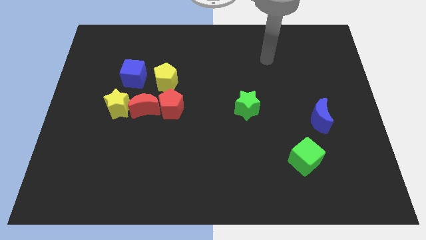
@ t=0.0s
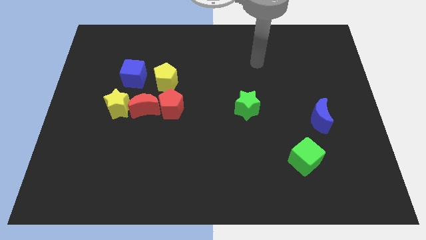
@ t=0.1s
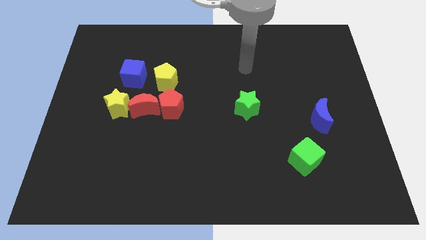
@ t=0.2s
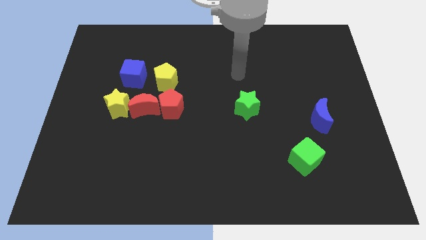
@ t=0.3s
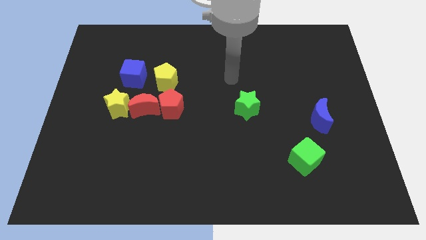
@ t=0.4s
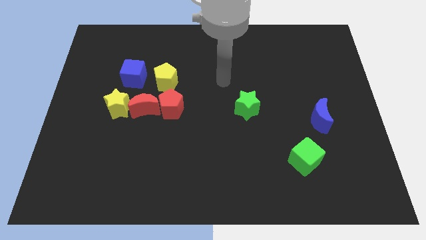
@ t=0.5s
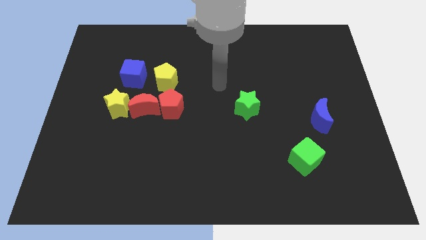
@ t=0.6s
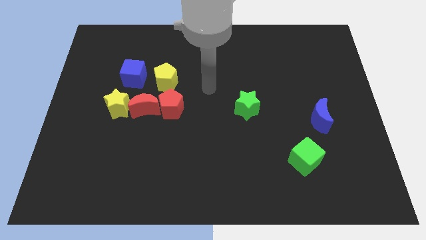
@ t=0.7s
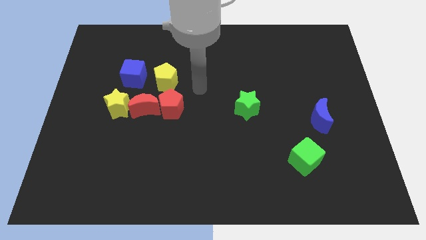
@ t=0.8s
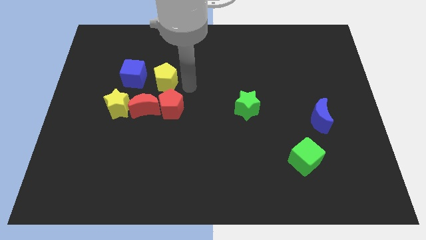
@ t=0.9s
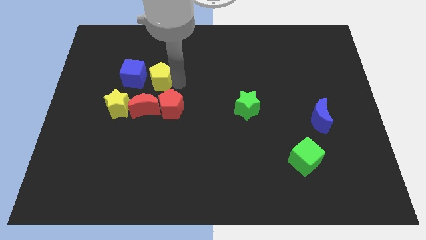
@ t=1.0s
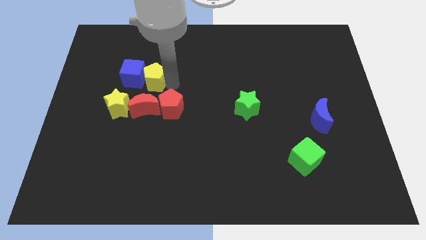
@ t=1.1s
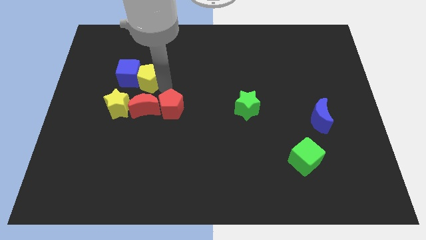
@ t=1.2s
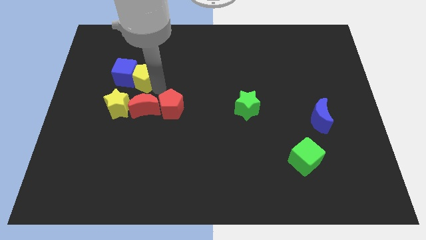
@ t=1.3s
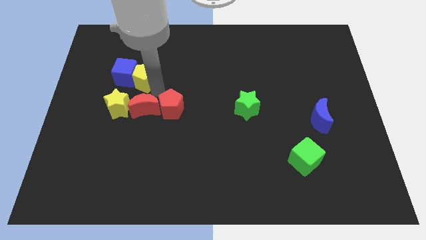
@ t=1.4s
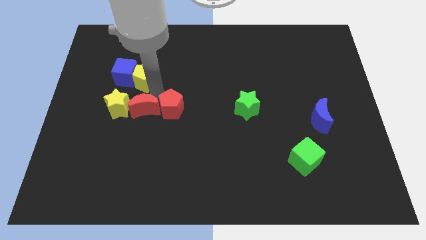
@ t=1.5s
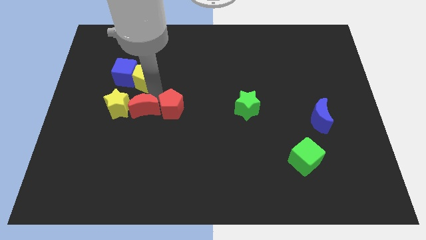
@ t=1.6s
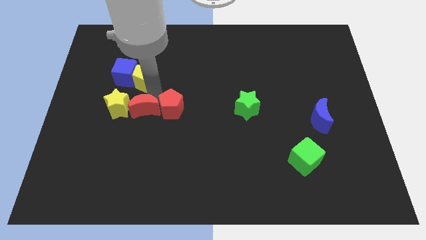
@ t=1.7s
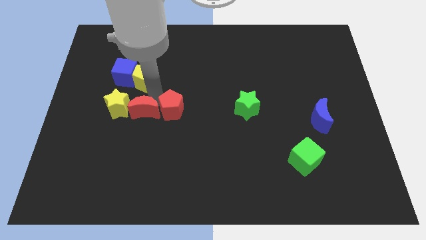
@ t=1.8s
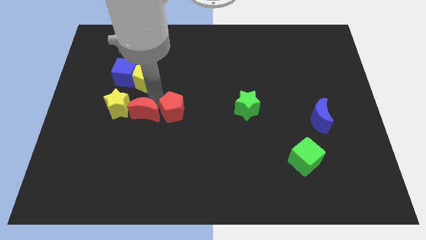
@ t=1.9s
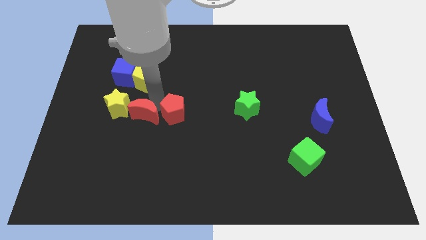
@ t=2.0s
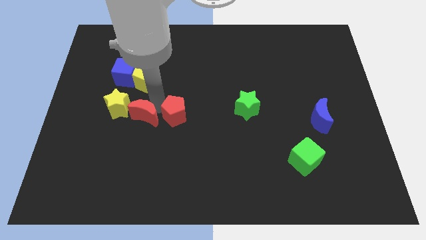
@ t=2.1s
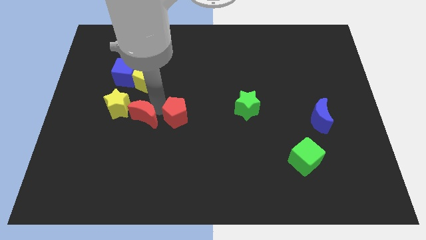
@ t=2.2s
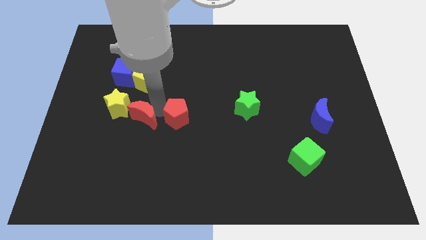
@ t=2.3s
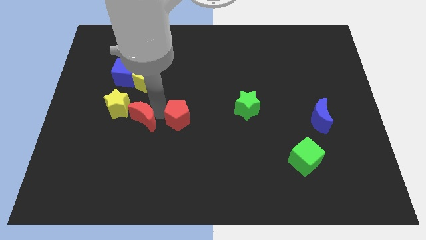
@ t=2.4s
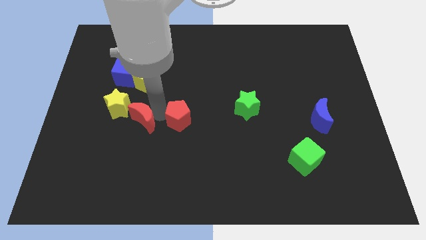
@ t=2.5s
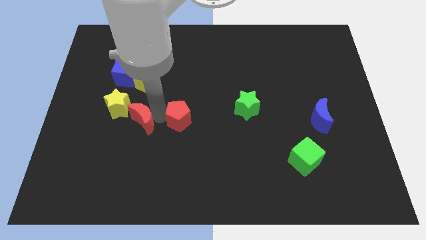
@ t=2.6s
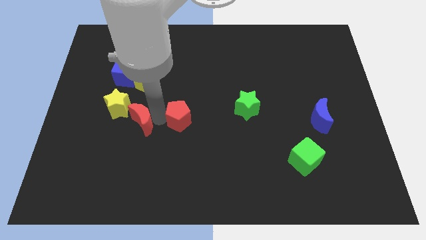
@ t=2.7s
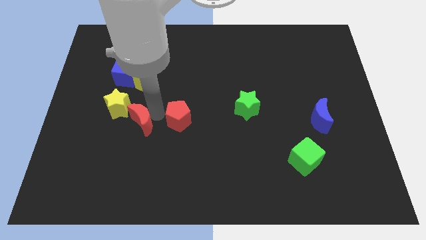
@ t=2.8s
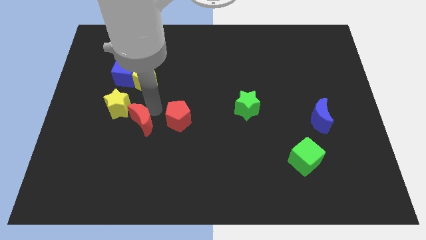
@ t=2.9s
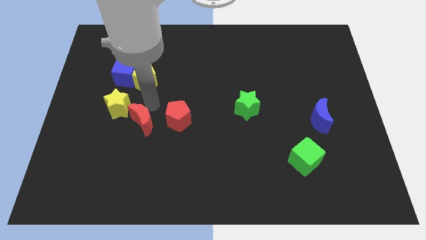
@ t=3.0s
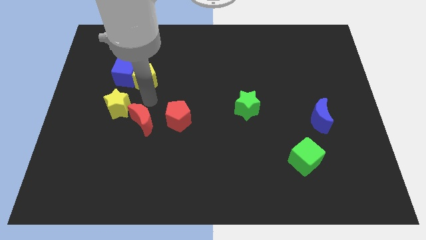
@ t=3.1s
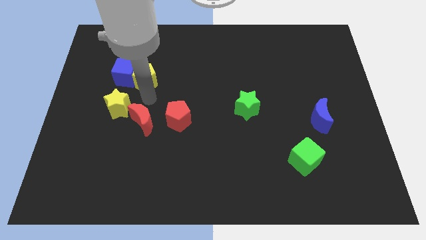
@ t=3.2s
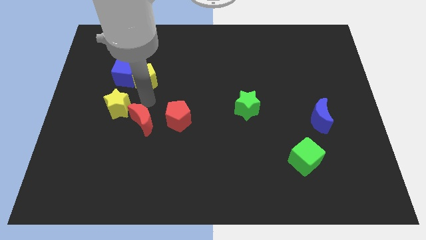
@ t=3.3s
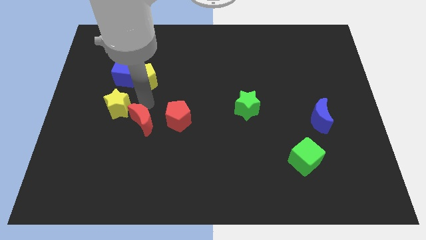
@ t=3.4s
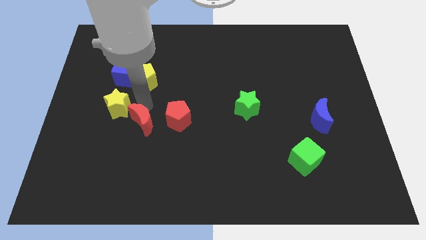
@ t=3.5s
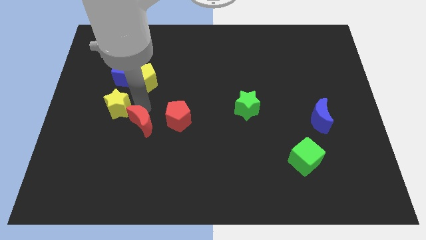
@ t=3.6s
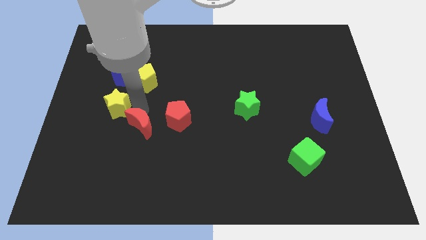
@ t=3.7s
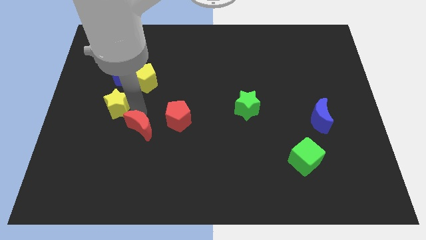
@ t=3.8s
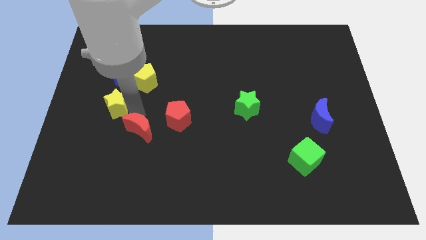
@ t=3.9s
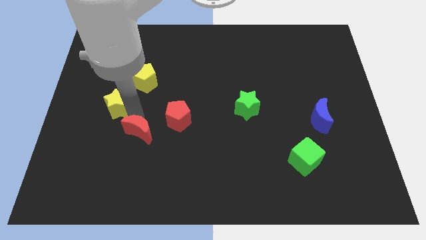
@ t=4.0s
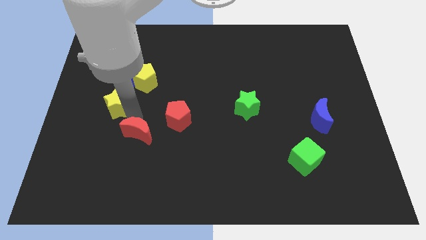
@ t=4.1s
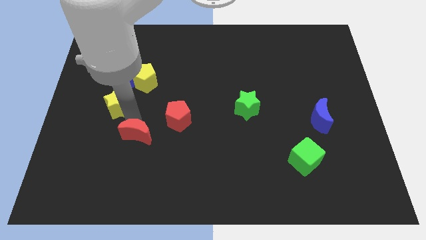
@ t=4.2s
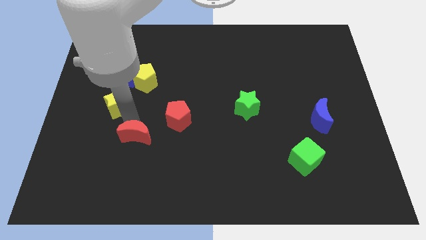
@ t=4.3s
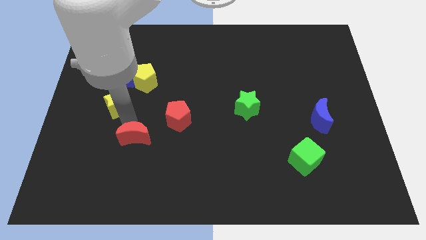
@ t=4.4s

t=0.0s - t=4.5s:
pull the red moon apart from the yellow star, red pentagon, and yellow pentagon

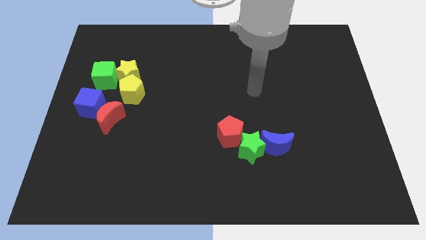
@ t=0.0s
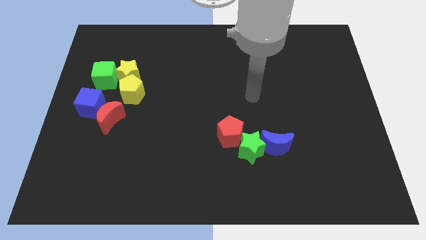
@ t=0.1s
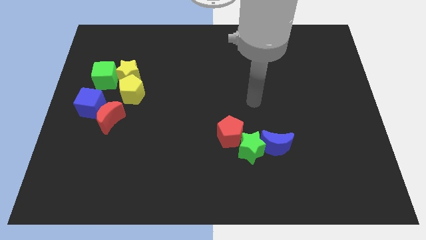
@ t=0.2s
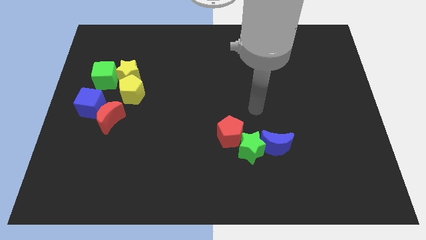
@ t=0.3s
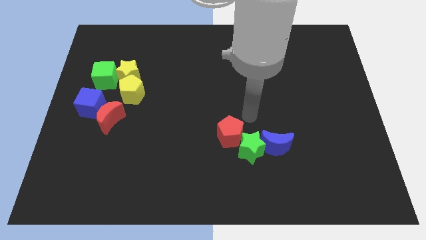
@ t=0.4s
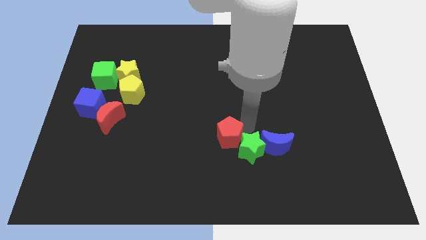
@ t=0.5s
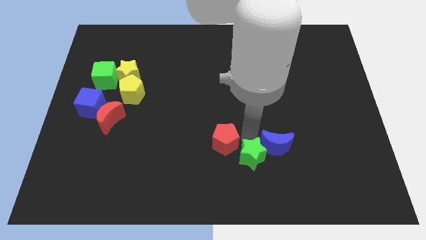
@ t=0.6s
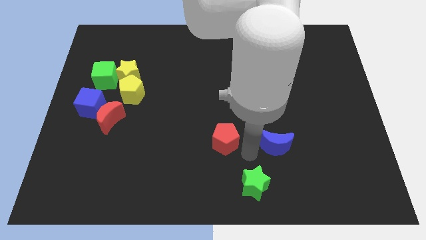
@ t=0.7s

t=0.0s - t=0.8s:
separate the blue moon from the green star

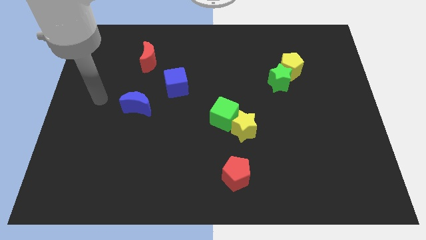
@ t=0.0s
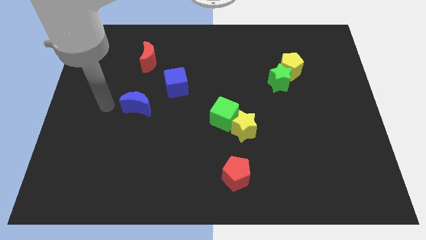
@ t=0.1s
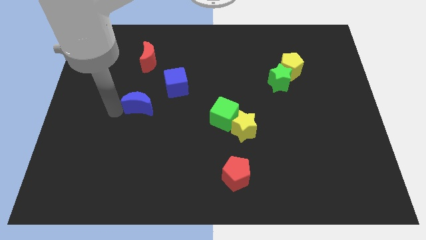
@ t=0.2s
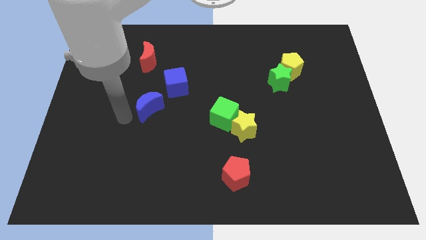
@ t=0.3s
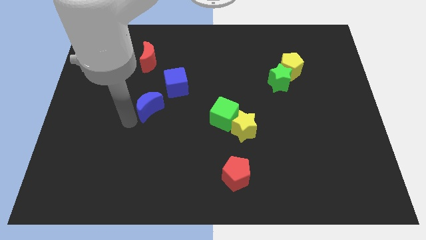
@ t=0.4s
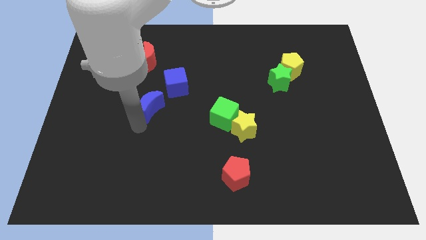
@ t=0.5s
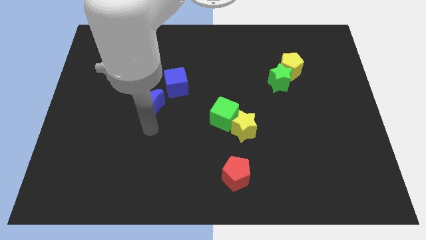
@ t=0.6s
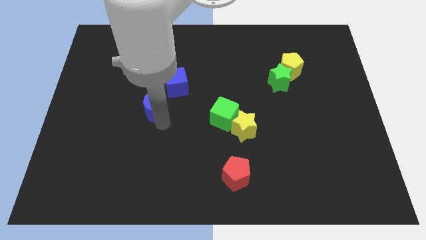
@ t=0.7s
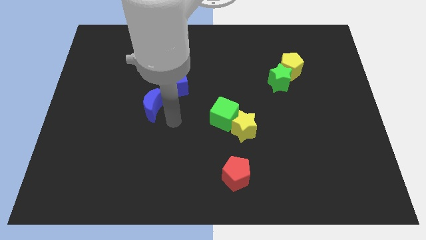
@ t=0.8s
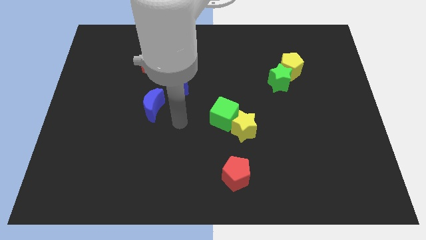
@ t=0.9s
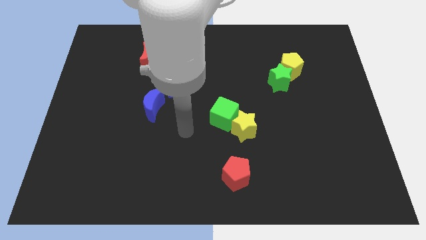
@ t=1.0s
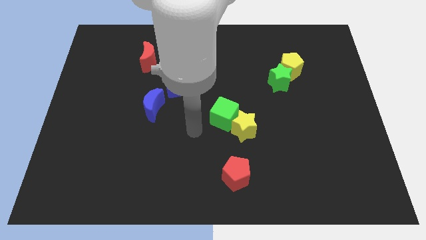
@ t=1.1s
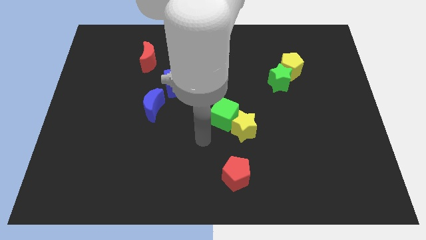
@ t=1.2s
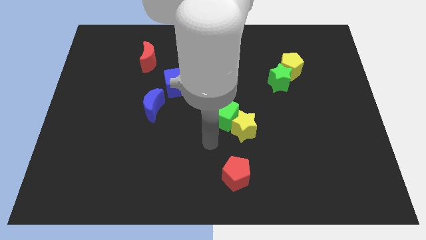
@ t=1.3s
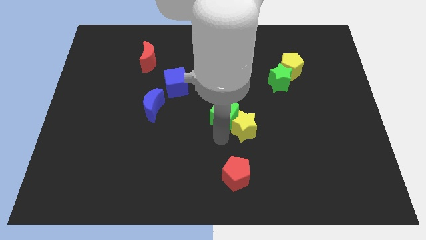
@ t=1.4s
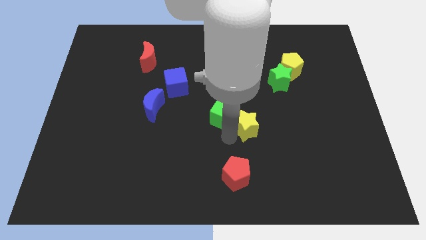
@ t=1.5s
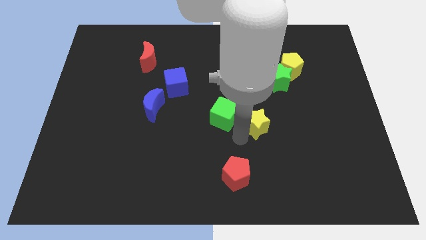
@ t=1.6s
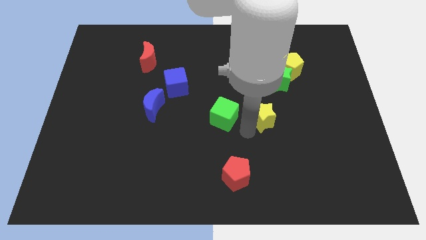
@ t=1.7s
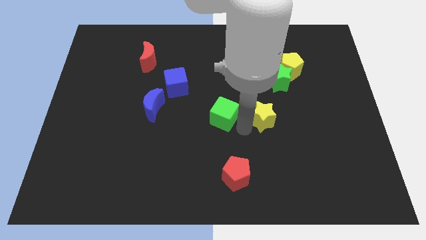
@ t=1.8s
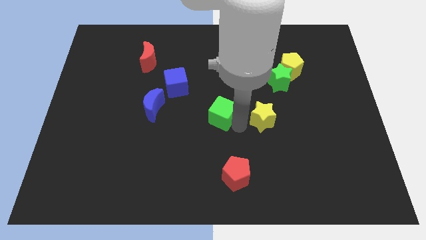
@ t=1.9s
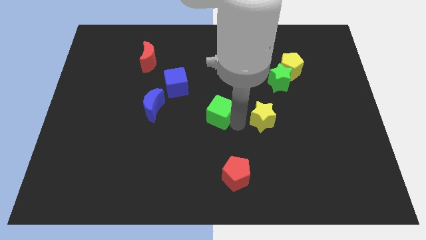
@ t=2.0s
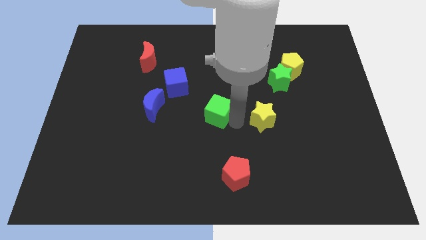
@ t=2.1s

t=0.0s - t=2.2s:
separate the green cube from the yellow star

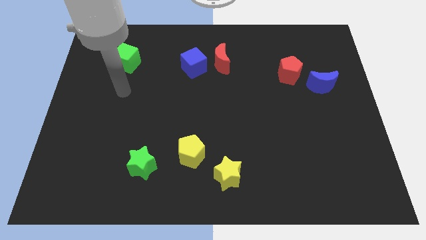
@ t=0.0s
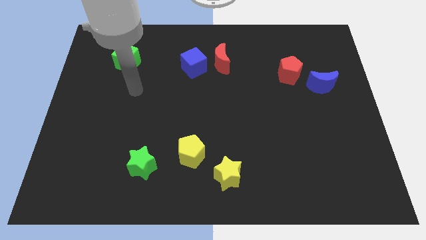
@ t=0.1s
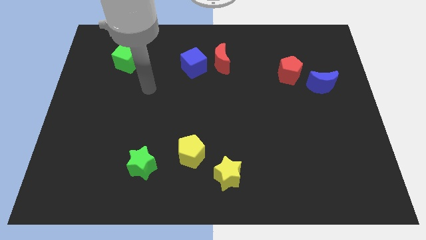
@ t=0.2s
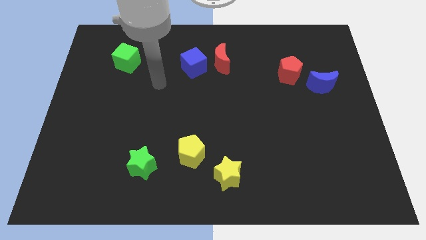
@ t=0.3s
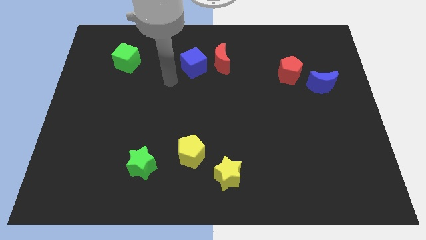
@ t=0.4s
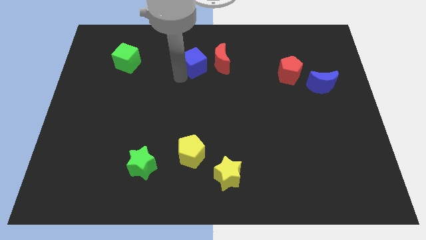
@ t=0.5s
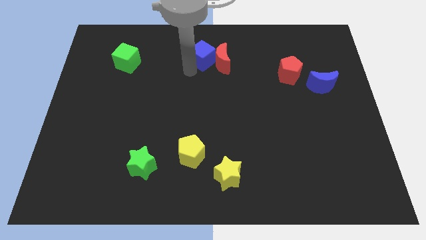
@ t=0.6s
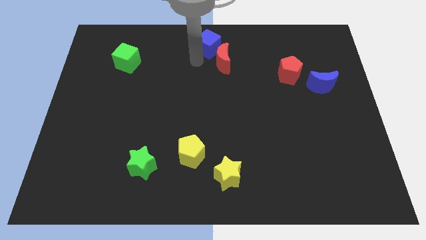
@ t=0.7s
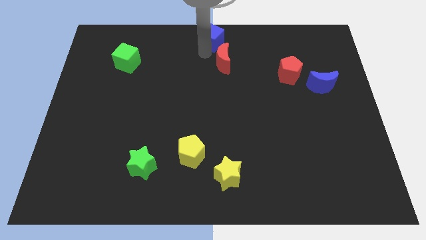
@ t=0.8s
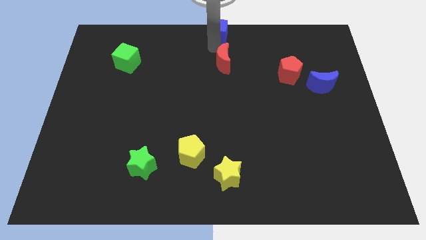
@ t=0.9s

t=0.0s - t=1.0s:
pull the red moon apart from the blue cube

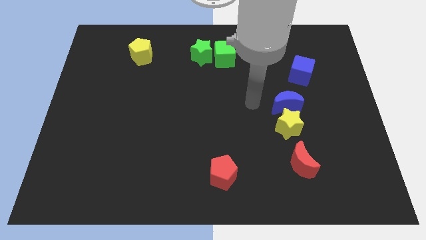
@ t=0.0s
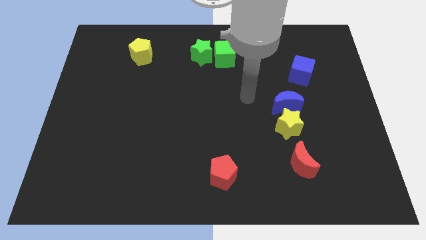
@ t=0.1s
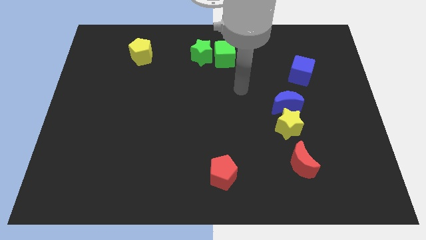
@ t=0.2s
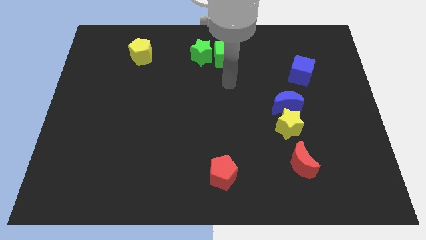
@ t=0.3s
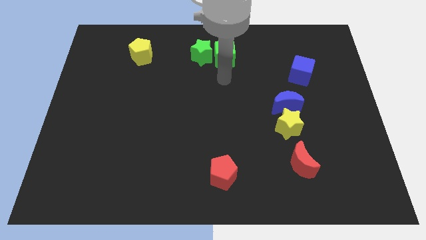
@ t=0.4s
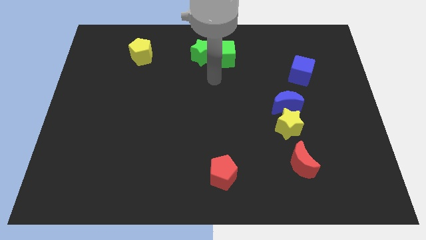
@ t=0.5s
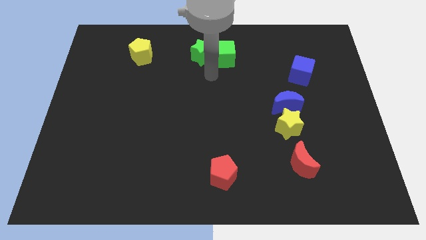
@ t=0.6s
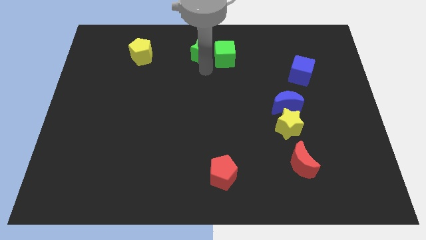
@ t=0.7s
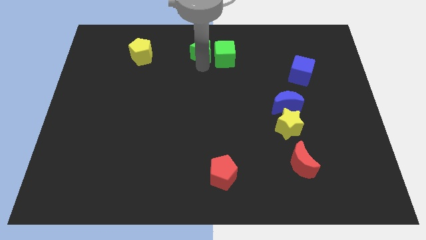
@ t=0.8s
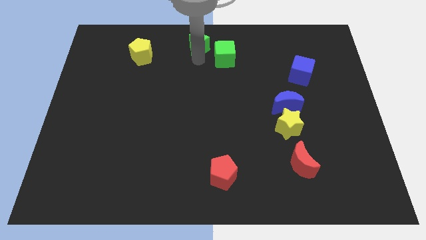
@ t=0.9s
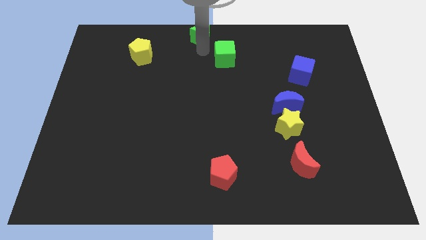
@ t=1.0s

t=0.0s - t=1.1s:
pull the green cube apart from the green star
